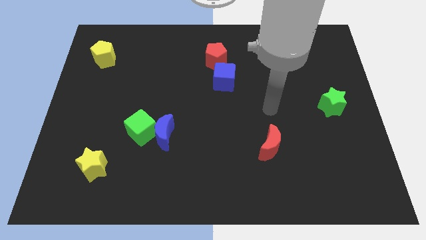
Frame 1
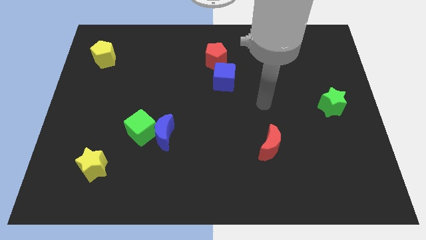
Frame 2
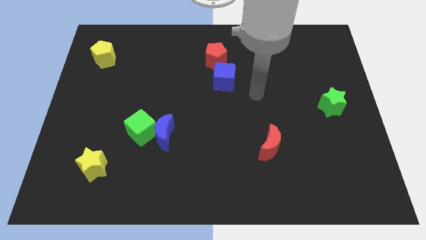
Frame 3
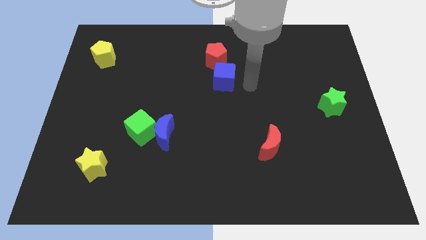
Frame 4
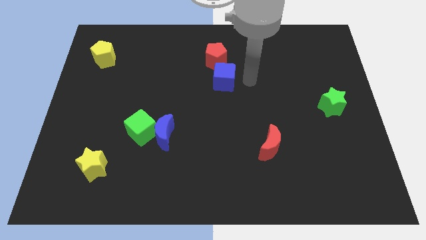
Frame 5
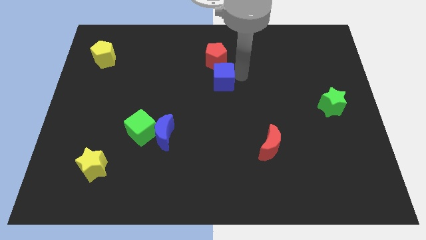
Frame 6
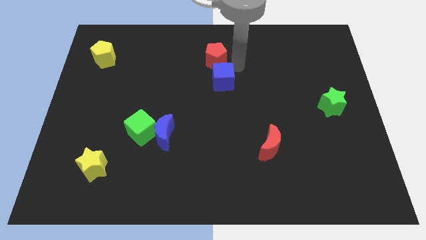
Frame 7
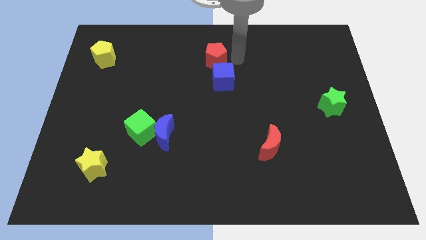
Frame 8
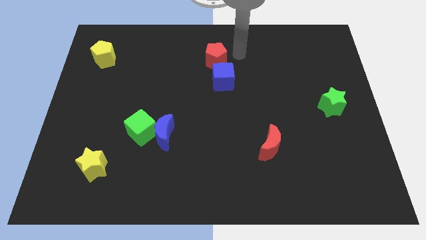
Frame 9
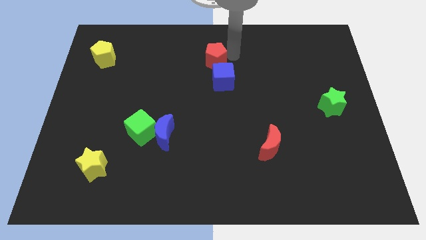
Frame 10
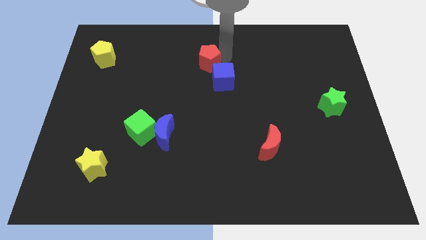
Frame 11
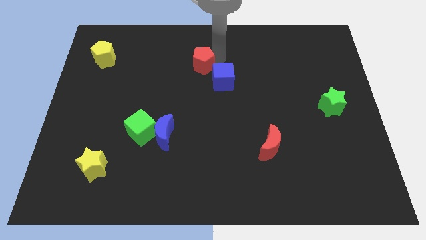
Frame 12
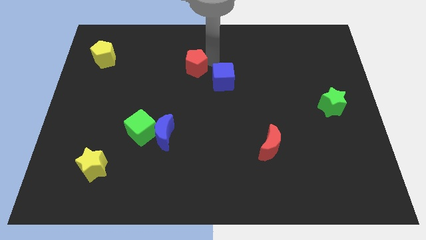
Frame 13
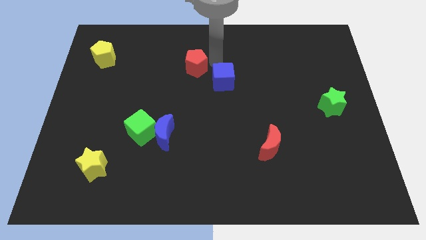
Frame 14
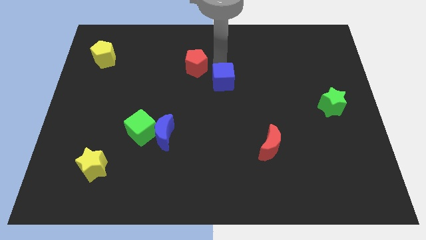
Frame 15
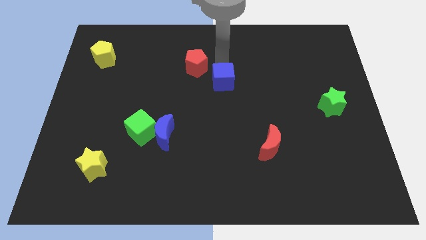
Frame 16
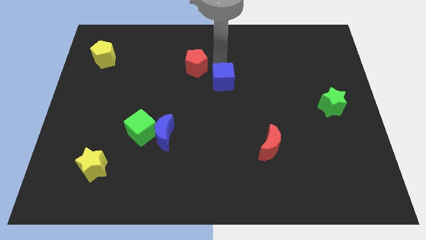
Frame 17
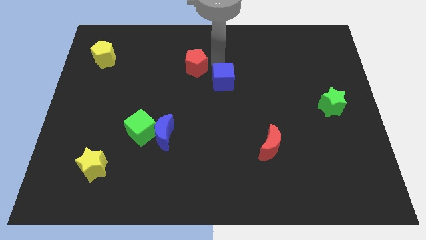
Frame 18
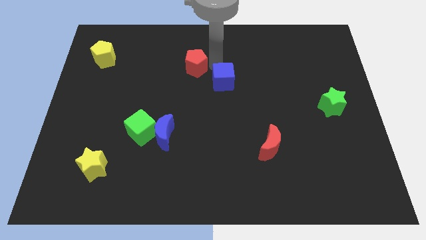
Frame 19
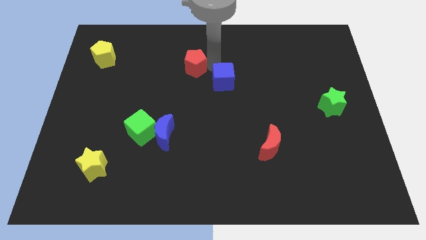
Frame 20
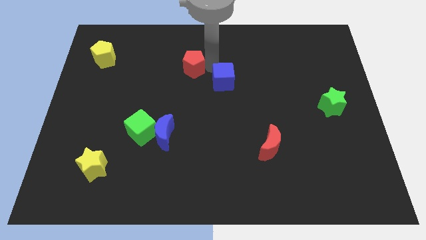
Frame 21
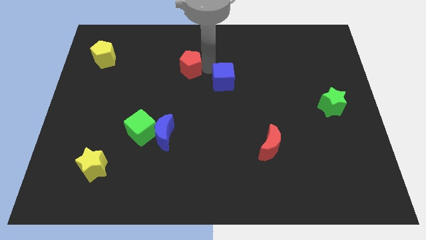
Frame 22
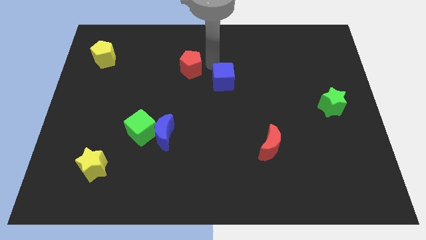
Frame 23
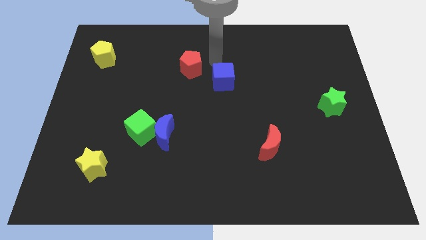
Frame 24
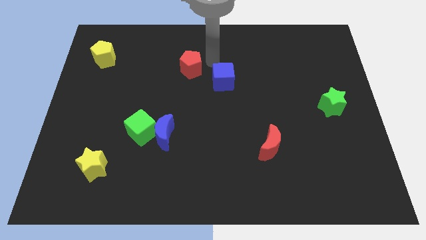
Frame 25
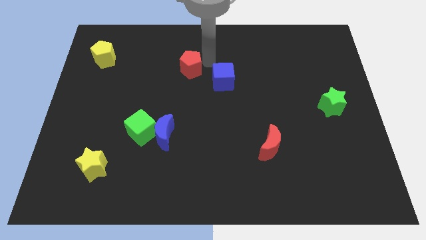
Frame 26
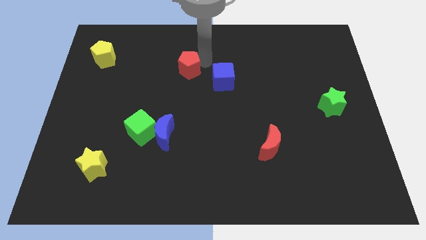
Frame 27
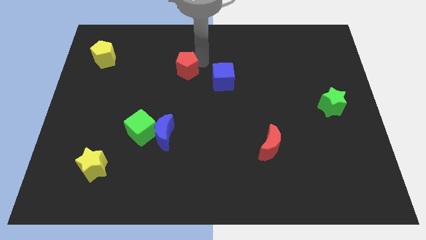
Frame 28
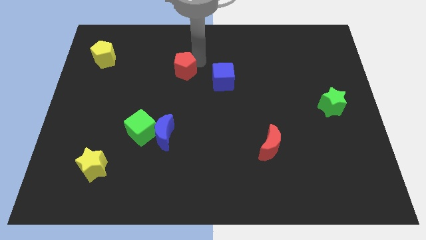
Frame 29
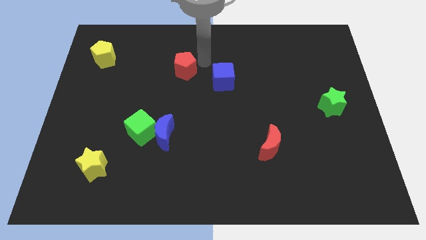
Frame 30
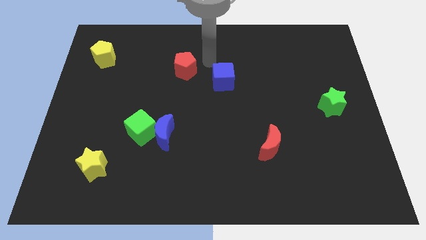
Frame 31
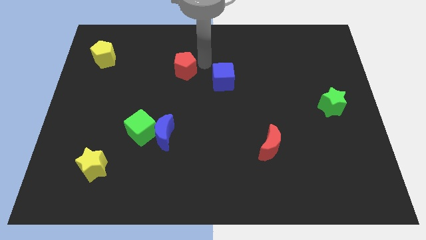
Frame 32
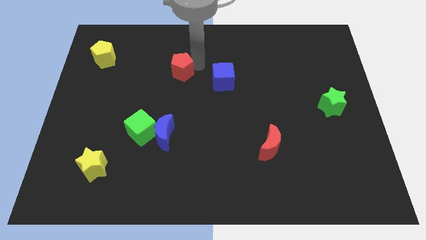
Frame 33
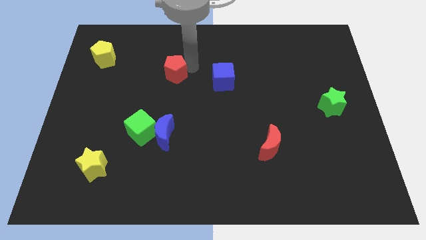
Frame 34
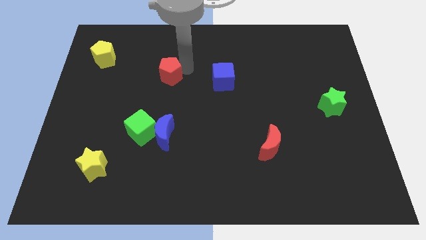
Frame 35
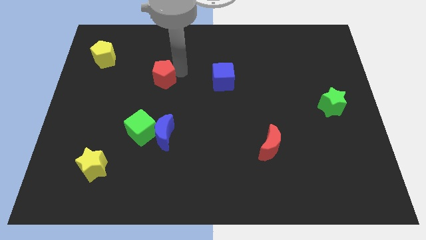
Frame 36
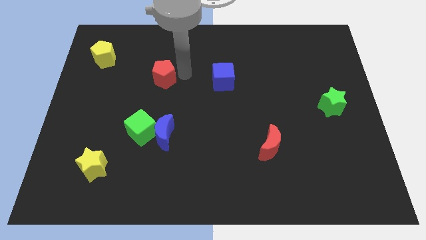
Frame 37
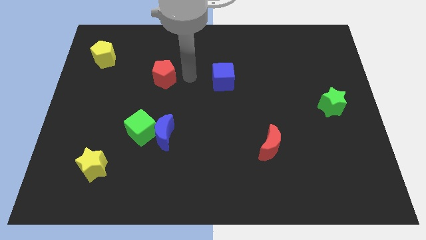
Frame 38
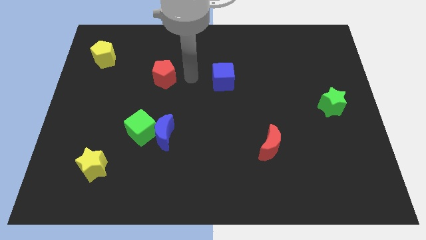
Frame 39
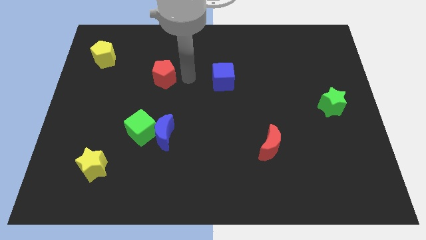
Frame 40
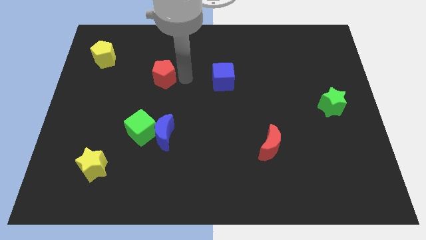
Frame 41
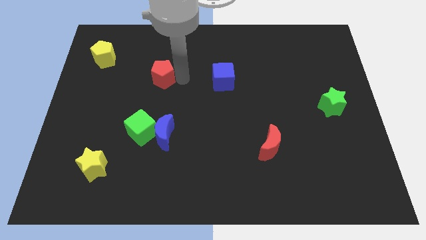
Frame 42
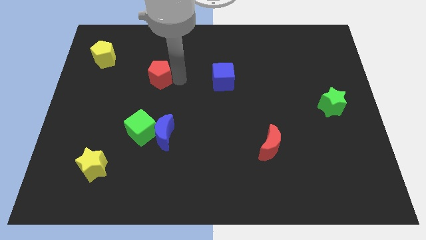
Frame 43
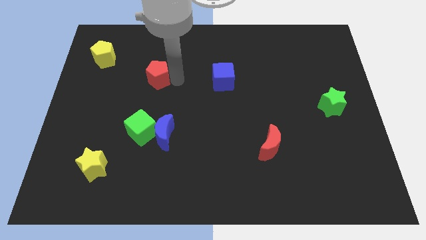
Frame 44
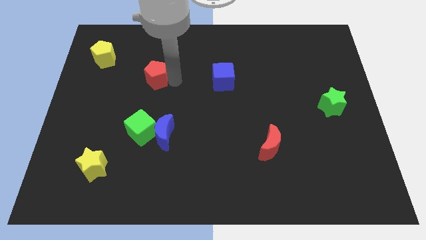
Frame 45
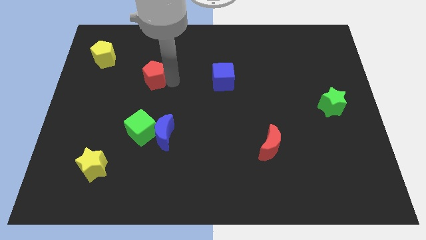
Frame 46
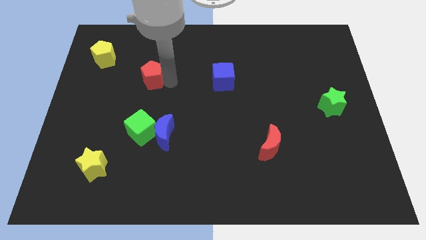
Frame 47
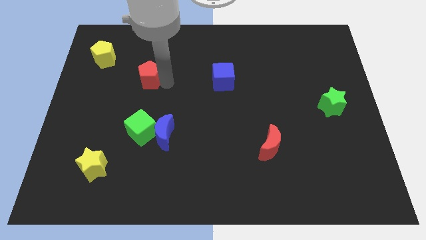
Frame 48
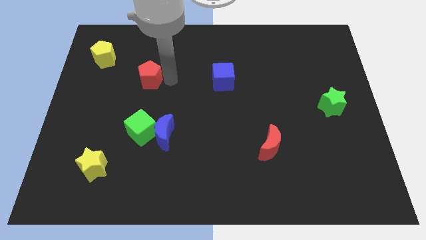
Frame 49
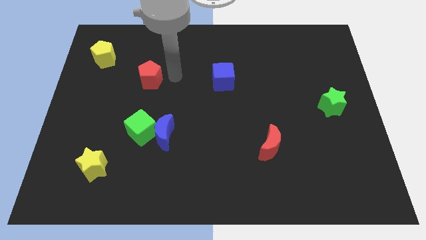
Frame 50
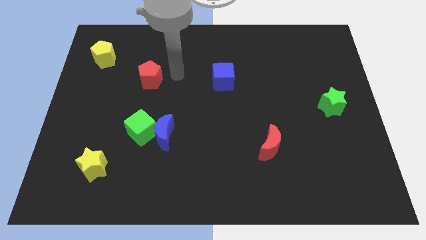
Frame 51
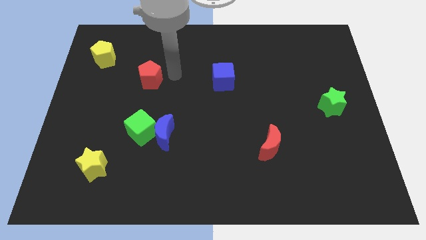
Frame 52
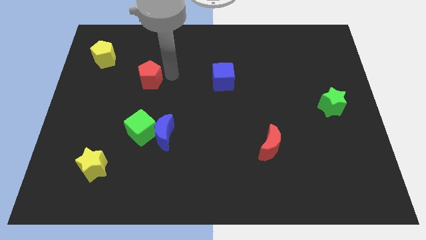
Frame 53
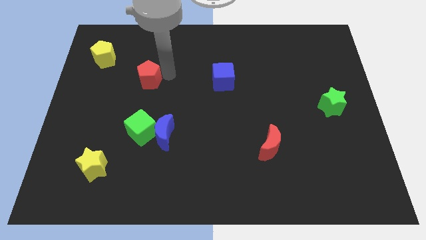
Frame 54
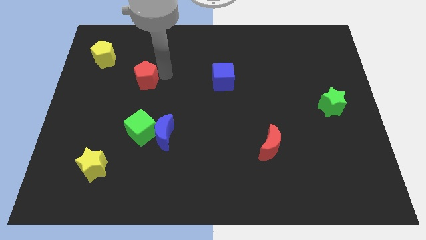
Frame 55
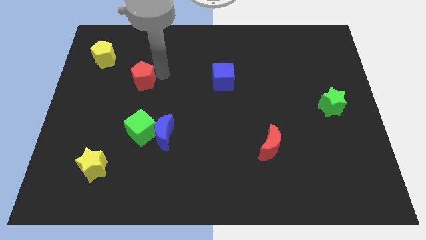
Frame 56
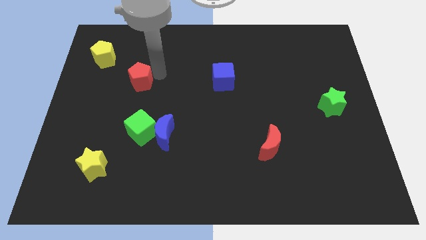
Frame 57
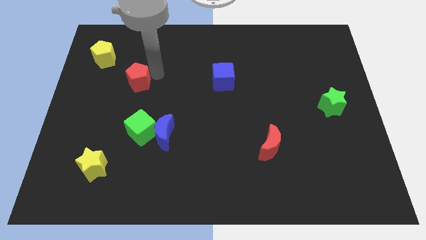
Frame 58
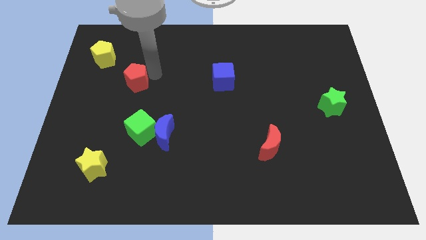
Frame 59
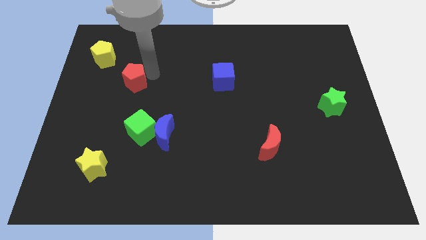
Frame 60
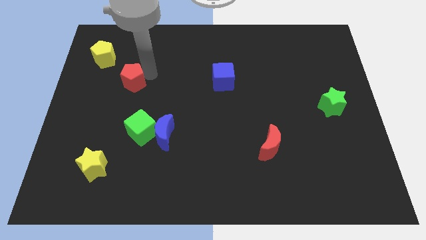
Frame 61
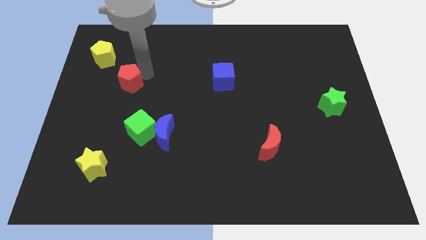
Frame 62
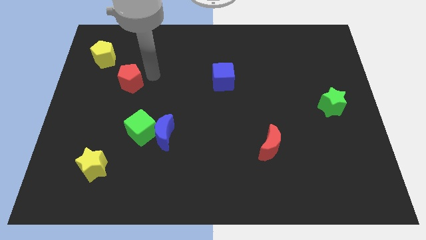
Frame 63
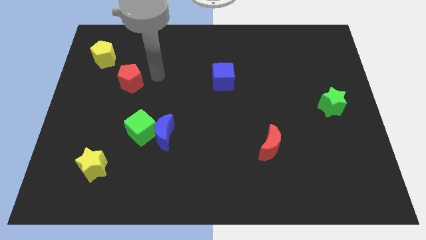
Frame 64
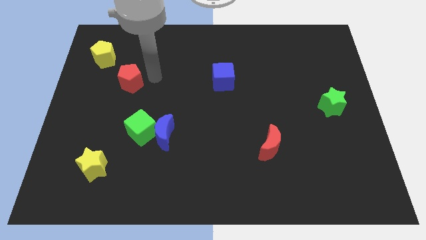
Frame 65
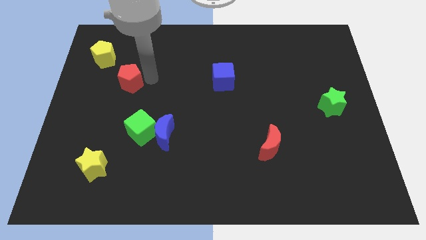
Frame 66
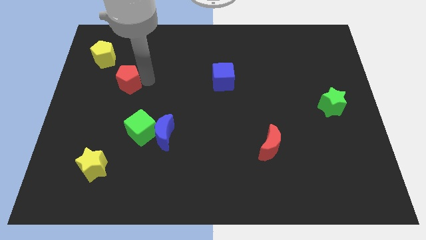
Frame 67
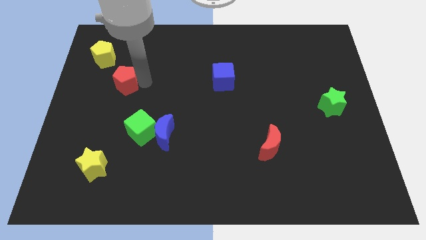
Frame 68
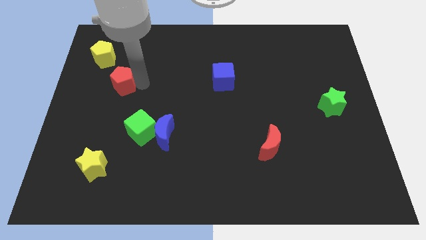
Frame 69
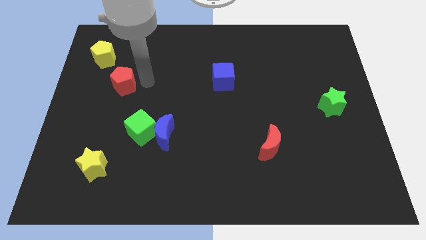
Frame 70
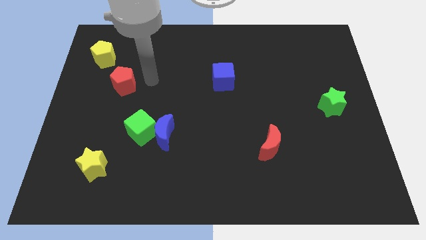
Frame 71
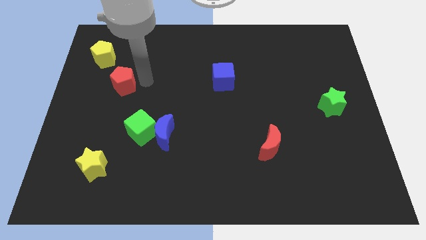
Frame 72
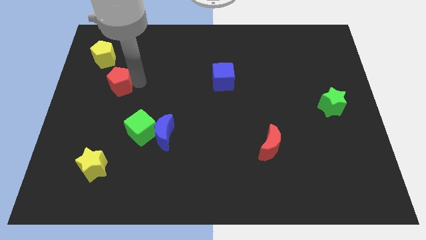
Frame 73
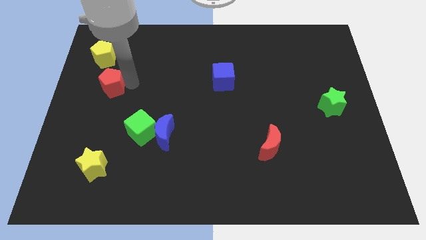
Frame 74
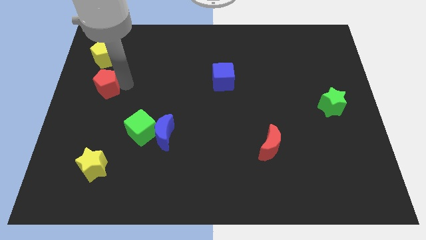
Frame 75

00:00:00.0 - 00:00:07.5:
push the red pentagon to the left side of the board
